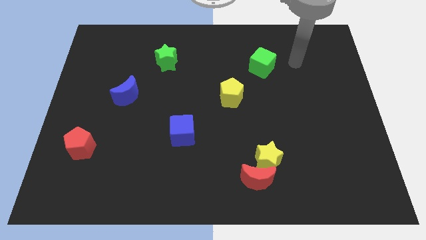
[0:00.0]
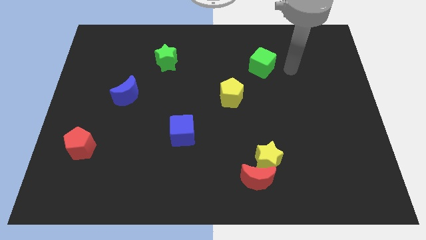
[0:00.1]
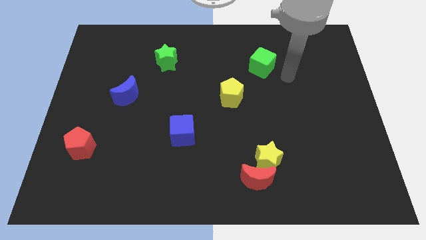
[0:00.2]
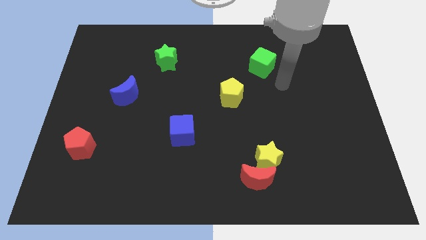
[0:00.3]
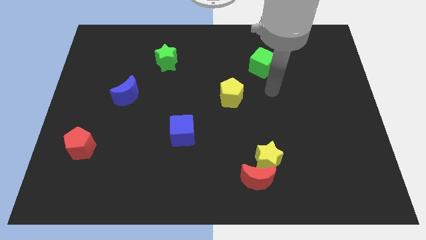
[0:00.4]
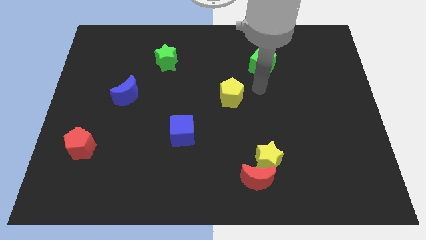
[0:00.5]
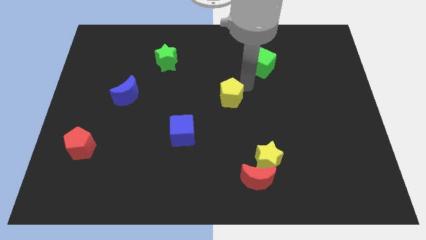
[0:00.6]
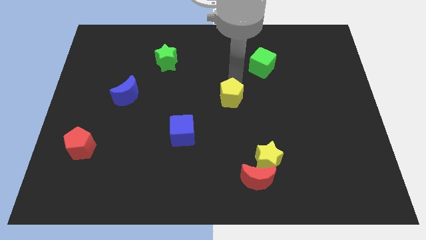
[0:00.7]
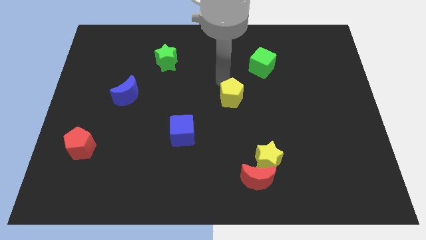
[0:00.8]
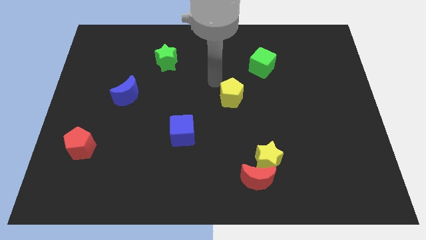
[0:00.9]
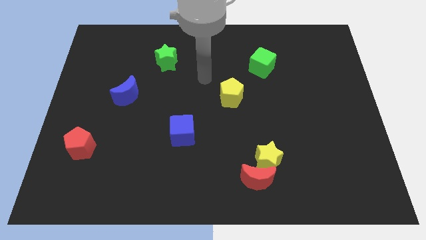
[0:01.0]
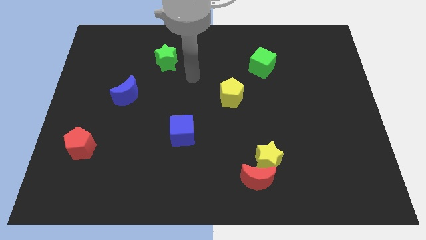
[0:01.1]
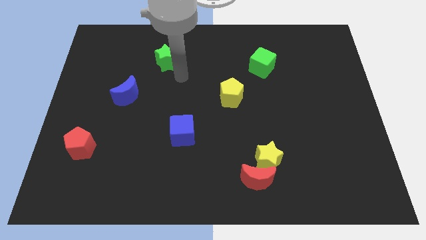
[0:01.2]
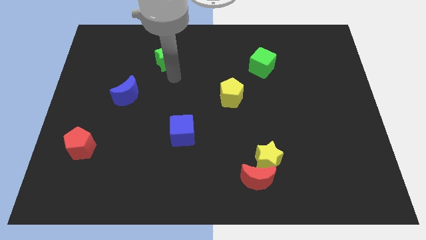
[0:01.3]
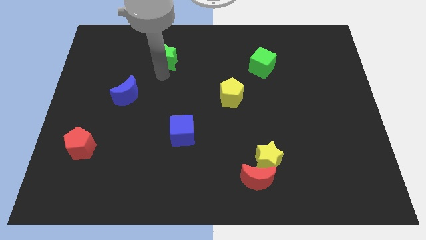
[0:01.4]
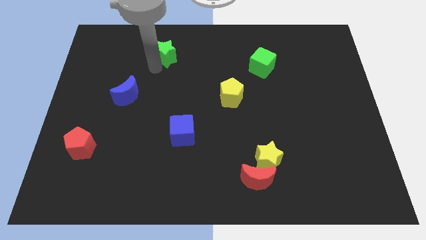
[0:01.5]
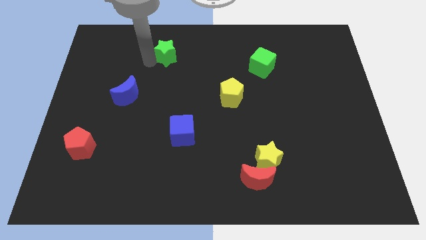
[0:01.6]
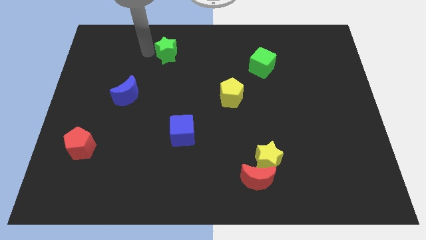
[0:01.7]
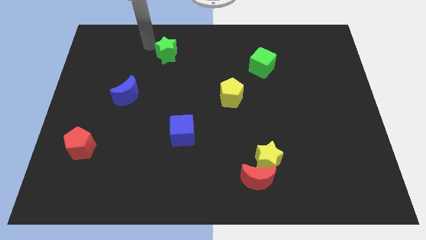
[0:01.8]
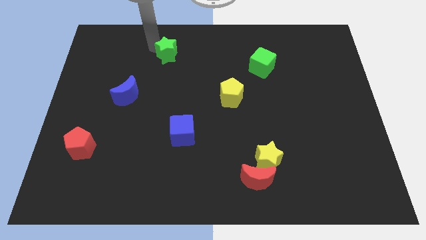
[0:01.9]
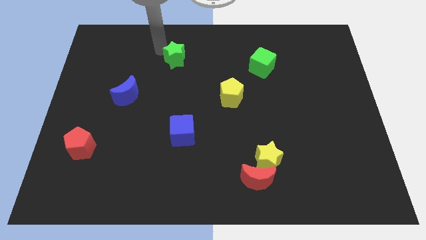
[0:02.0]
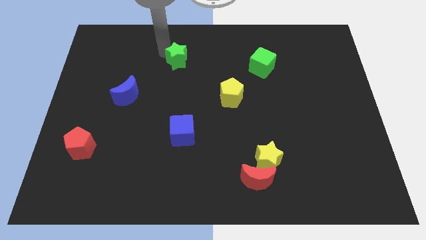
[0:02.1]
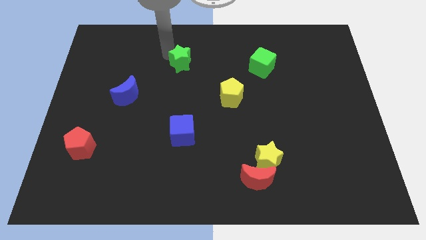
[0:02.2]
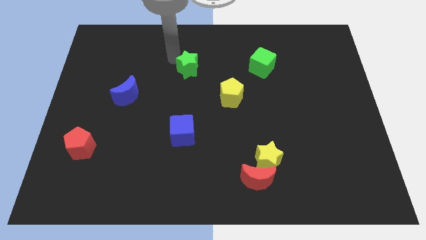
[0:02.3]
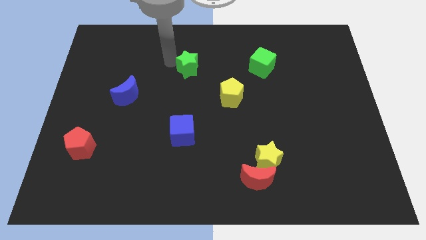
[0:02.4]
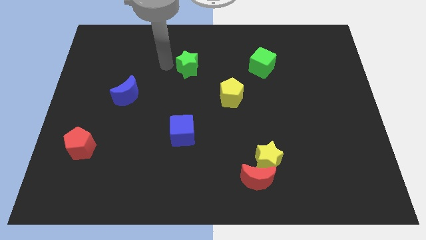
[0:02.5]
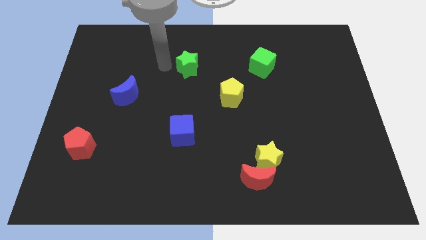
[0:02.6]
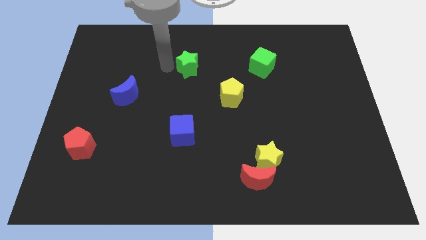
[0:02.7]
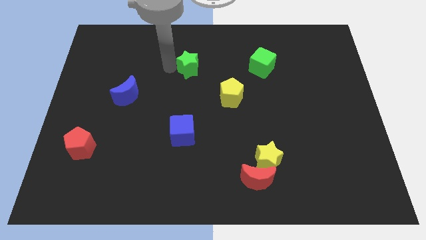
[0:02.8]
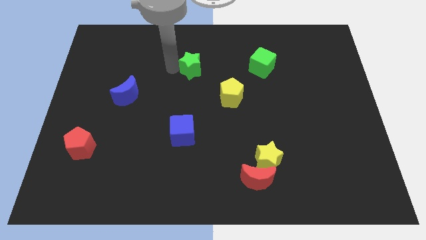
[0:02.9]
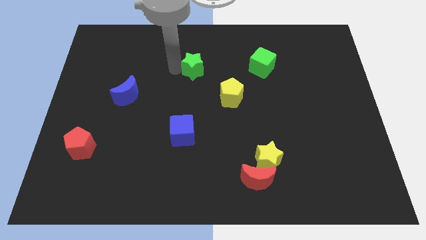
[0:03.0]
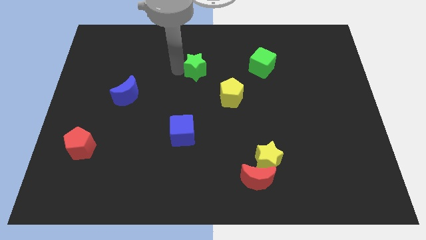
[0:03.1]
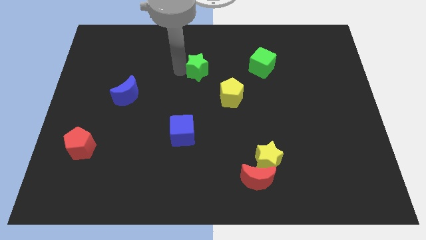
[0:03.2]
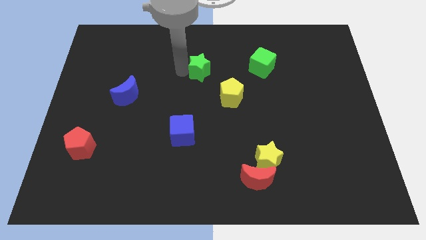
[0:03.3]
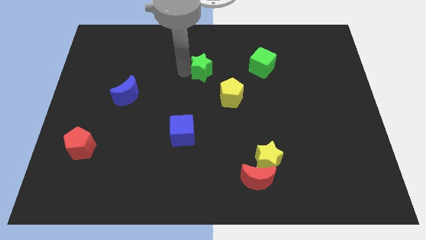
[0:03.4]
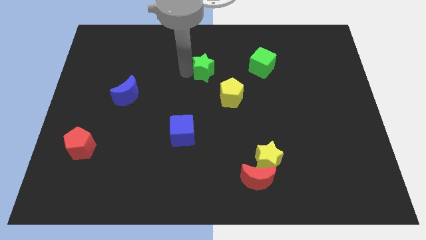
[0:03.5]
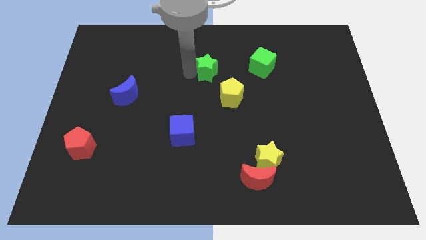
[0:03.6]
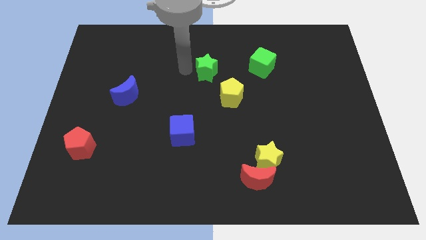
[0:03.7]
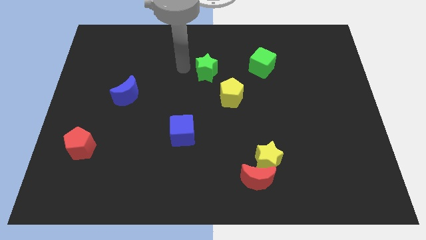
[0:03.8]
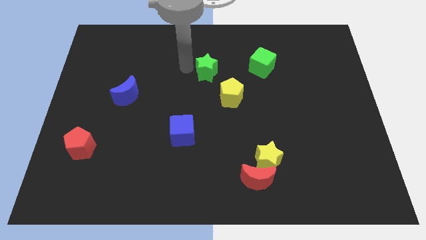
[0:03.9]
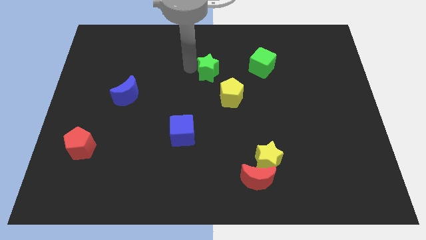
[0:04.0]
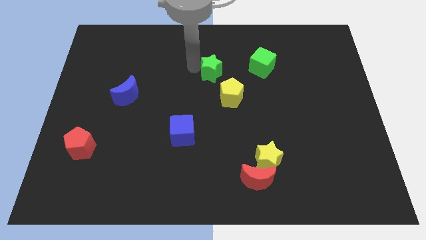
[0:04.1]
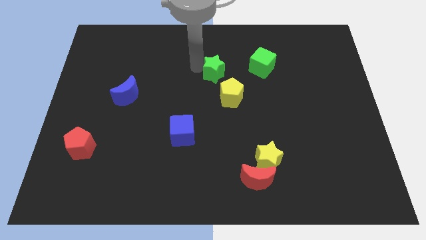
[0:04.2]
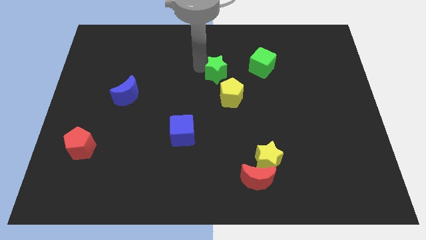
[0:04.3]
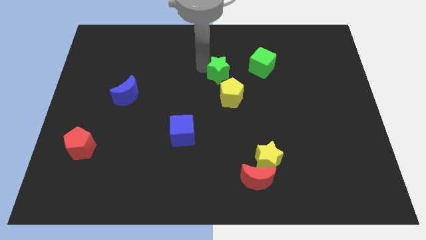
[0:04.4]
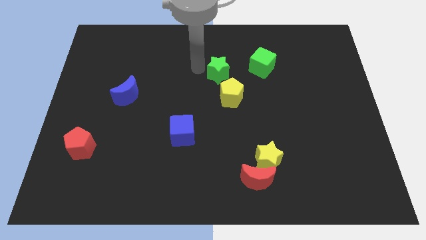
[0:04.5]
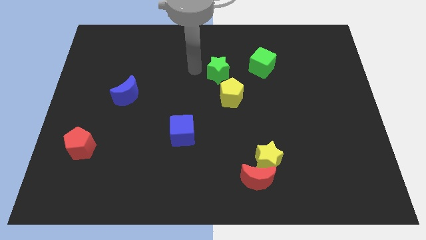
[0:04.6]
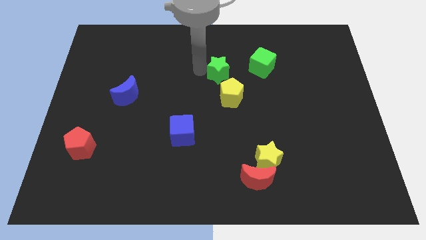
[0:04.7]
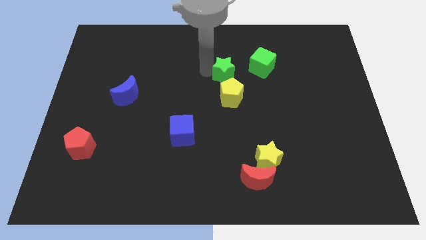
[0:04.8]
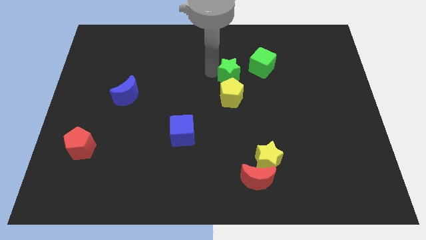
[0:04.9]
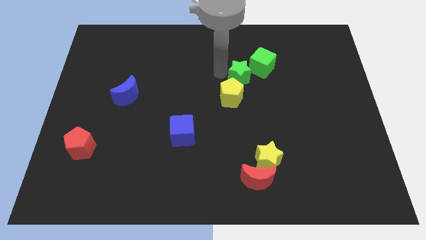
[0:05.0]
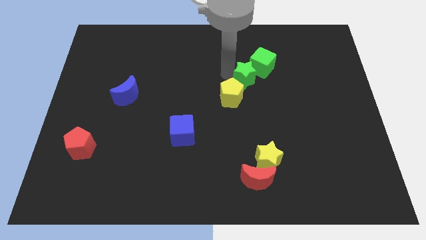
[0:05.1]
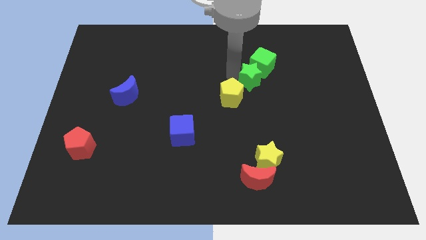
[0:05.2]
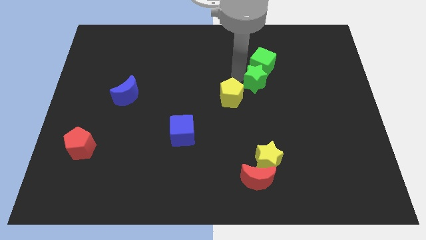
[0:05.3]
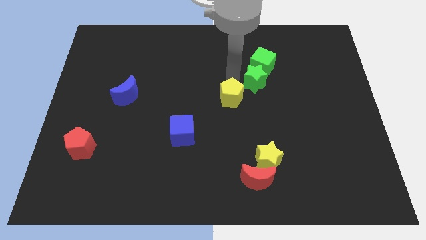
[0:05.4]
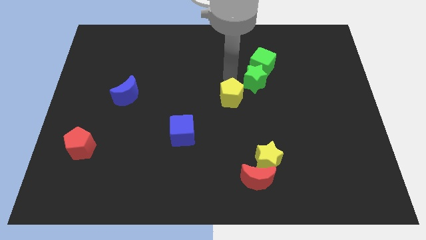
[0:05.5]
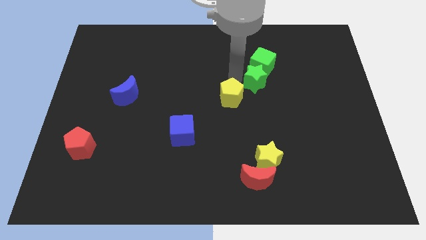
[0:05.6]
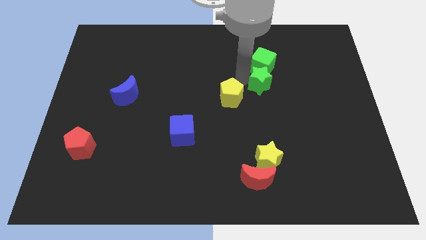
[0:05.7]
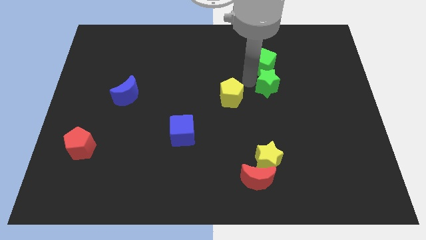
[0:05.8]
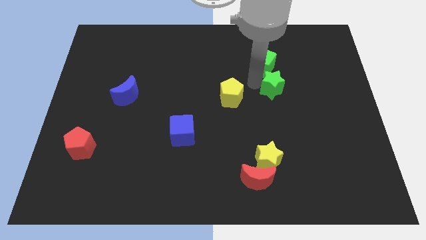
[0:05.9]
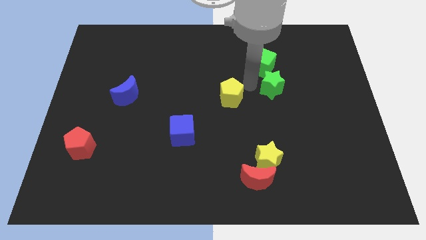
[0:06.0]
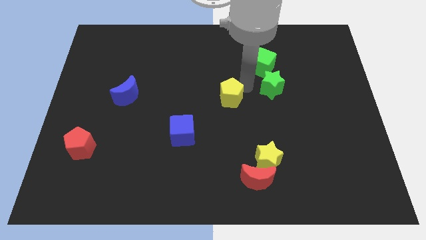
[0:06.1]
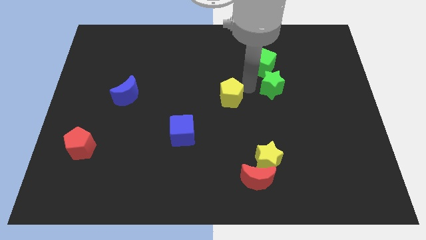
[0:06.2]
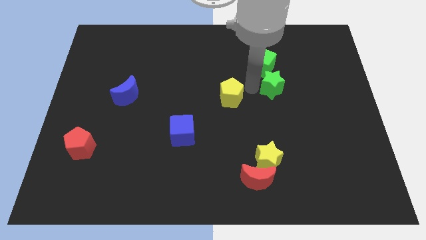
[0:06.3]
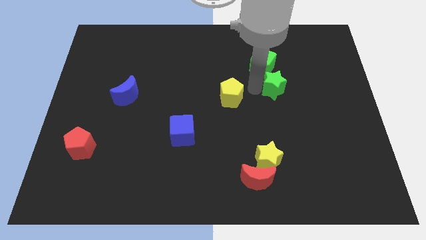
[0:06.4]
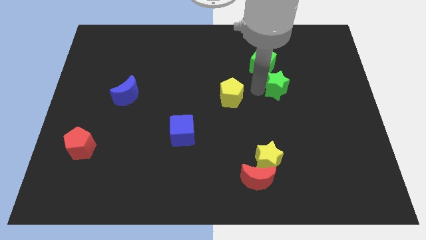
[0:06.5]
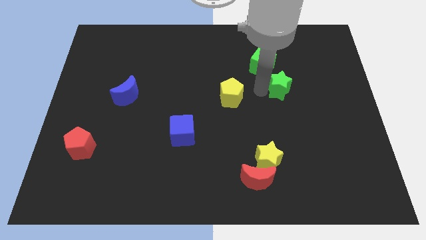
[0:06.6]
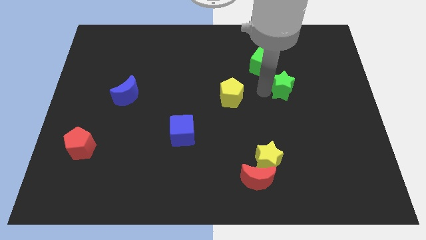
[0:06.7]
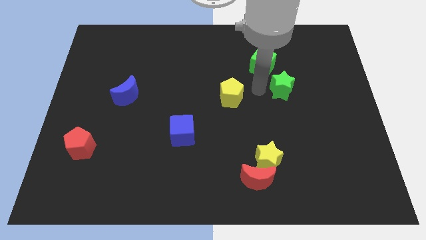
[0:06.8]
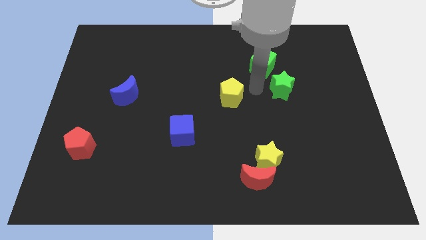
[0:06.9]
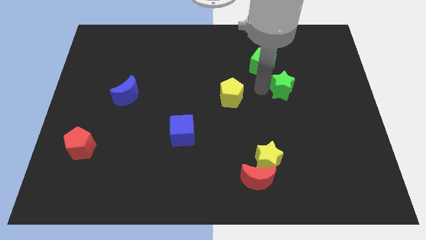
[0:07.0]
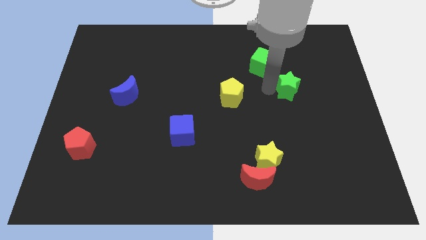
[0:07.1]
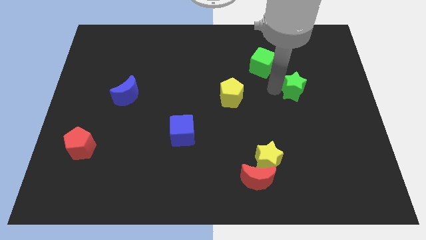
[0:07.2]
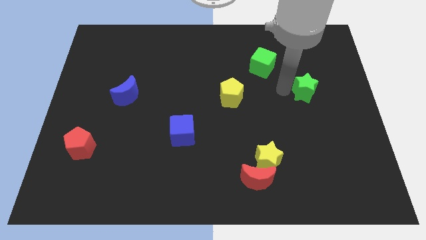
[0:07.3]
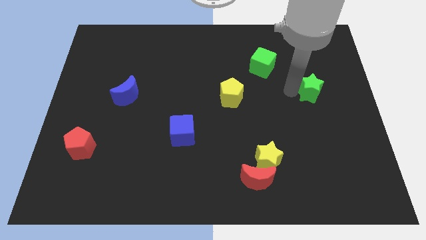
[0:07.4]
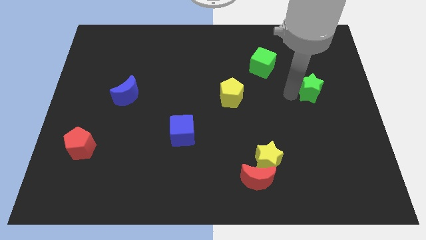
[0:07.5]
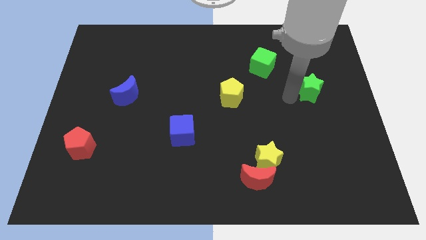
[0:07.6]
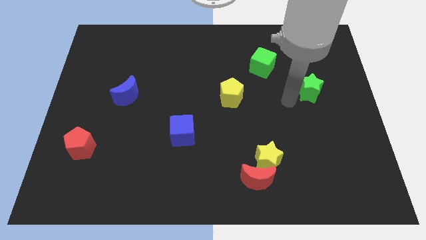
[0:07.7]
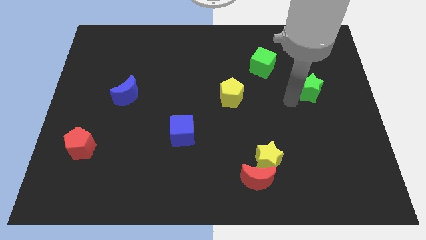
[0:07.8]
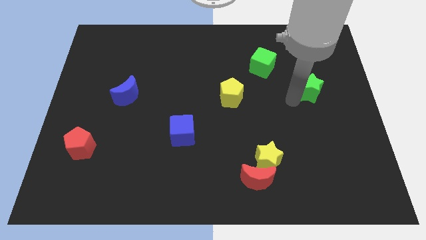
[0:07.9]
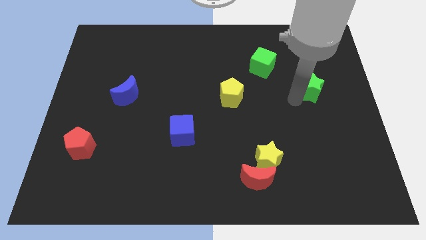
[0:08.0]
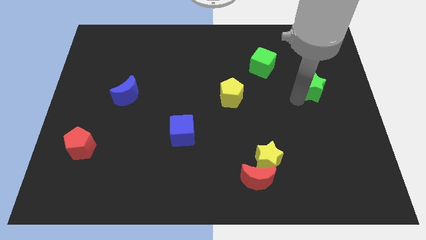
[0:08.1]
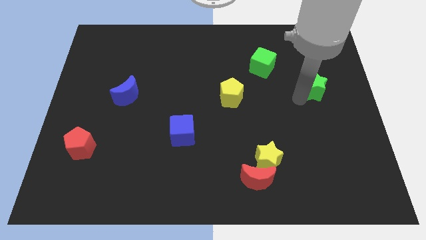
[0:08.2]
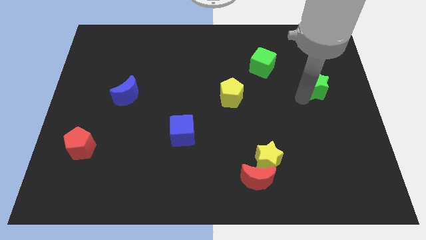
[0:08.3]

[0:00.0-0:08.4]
put the green star to the center right
